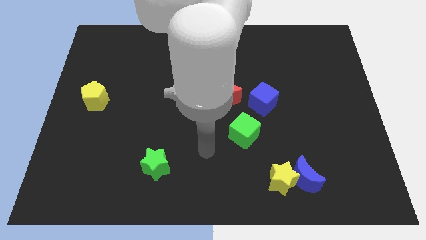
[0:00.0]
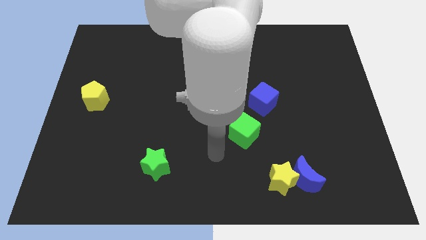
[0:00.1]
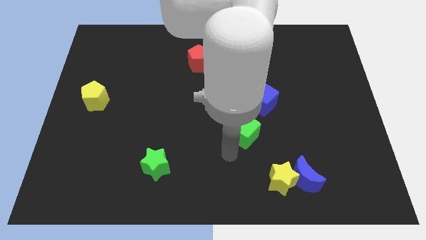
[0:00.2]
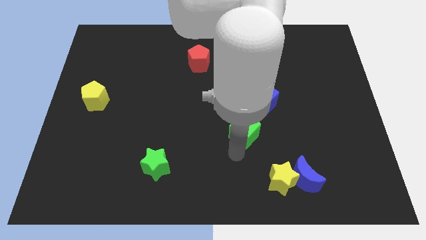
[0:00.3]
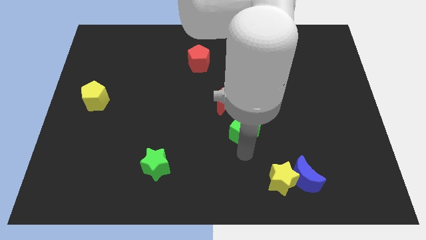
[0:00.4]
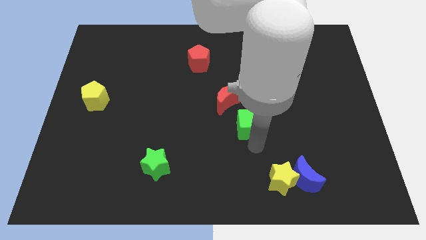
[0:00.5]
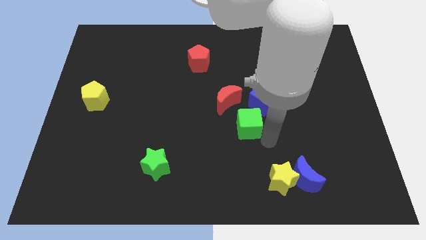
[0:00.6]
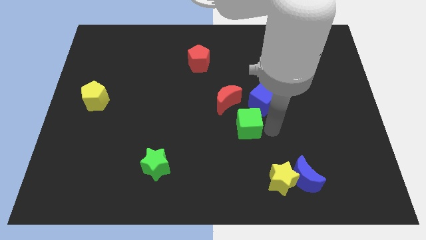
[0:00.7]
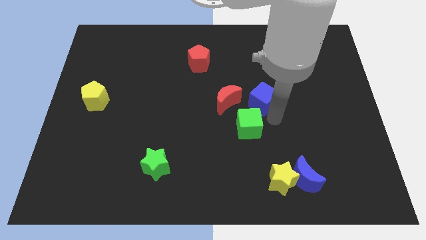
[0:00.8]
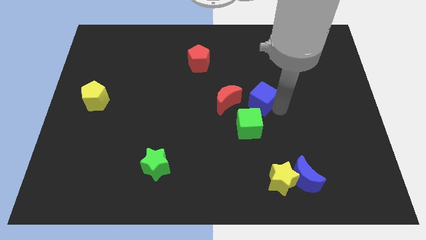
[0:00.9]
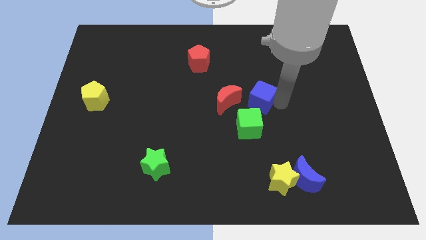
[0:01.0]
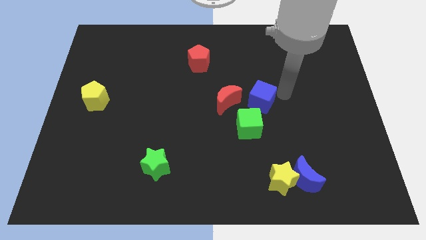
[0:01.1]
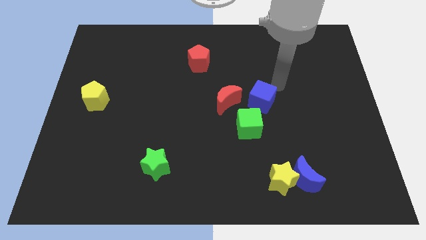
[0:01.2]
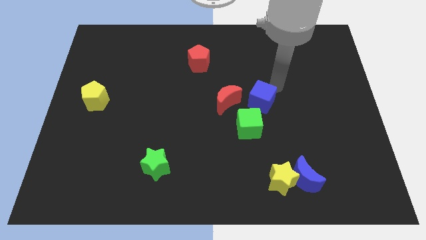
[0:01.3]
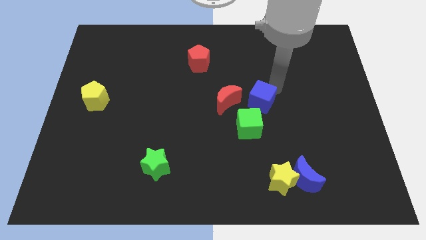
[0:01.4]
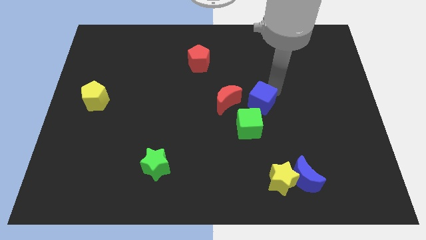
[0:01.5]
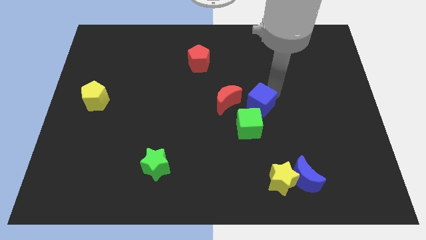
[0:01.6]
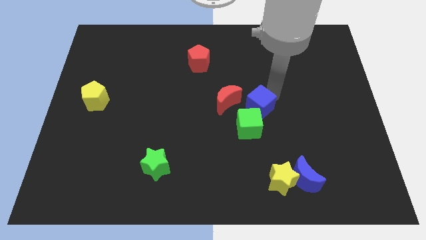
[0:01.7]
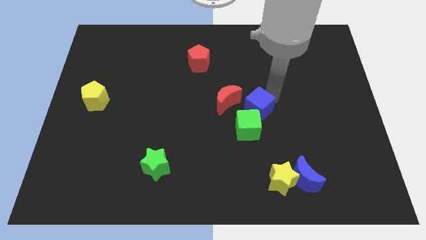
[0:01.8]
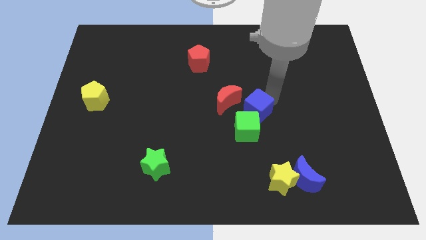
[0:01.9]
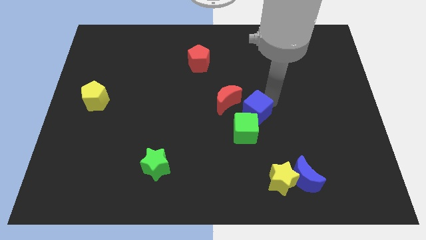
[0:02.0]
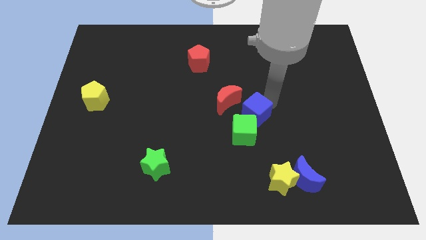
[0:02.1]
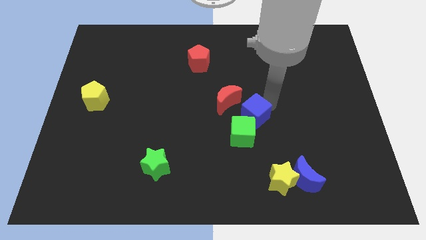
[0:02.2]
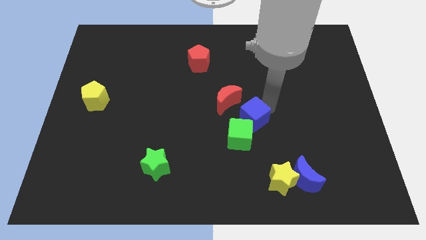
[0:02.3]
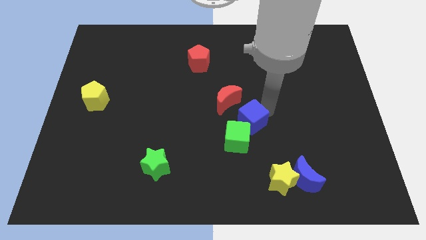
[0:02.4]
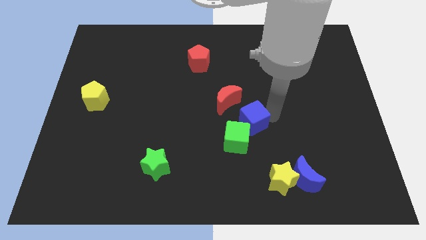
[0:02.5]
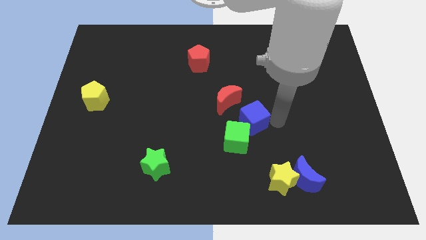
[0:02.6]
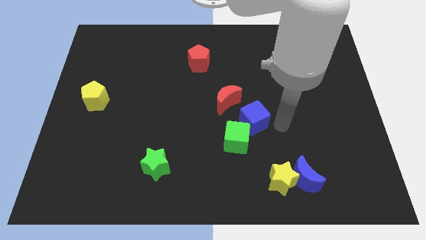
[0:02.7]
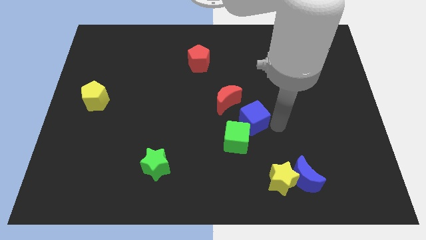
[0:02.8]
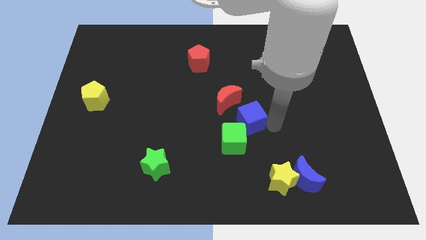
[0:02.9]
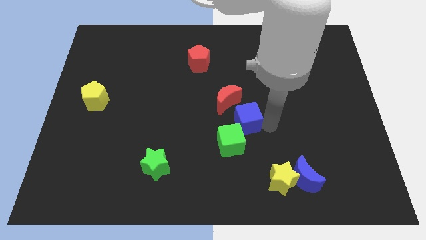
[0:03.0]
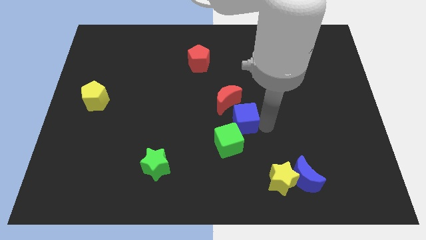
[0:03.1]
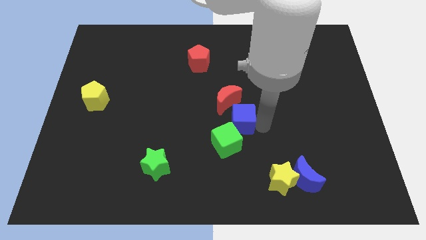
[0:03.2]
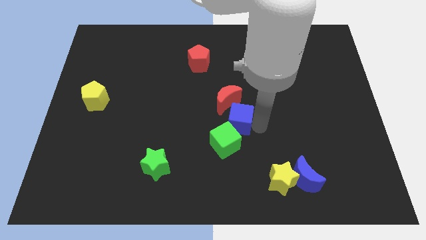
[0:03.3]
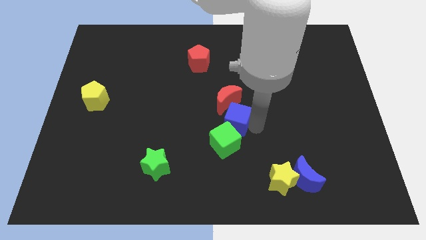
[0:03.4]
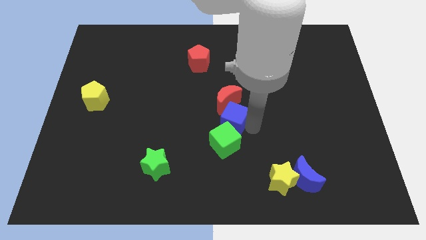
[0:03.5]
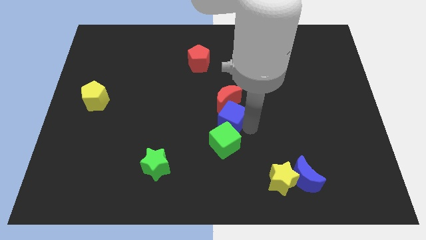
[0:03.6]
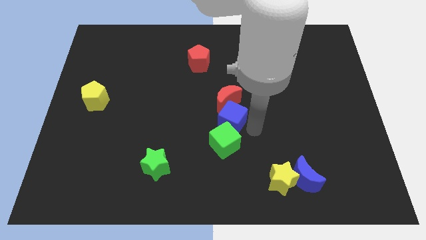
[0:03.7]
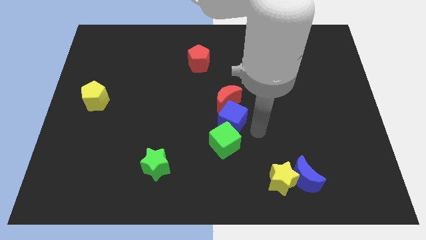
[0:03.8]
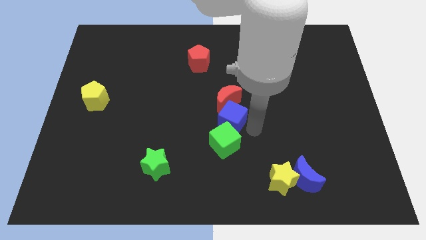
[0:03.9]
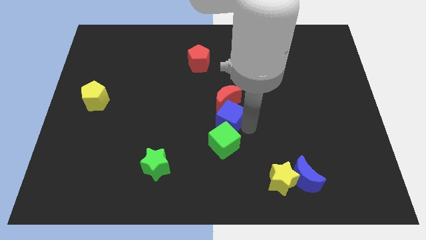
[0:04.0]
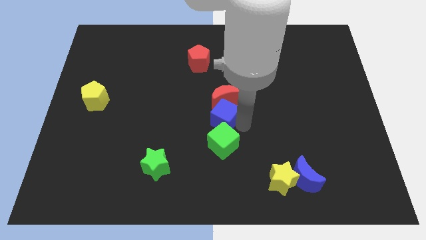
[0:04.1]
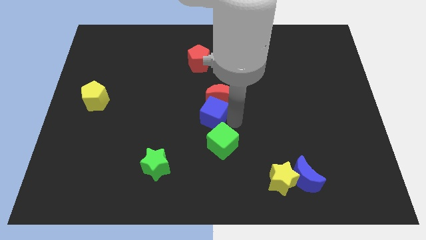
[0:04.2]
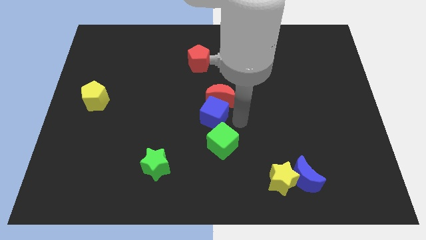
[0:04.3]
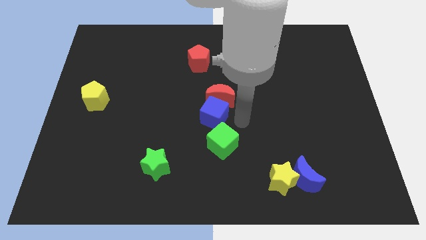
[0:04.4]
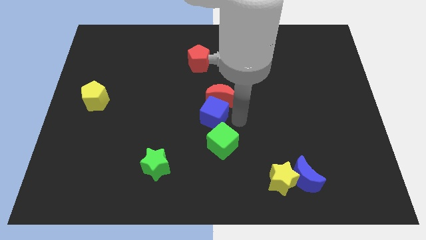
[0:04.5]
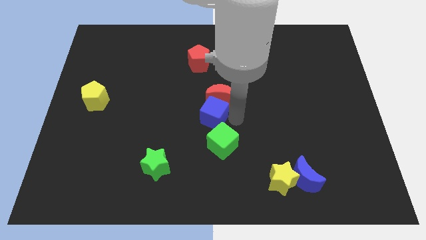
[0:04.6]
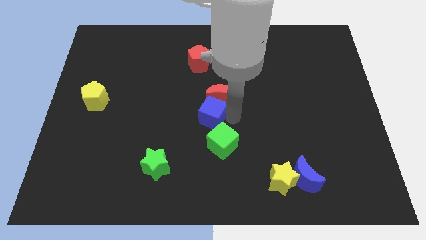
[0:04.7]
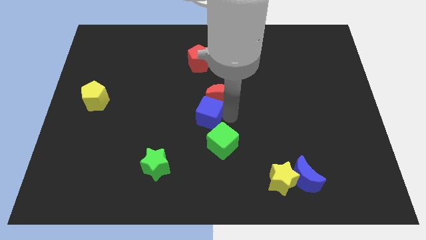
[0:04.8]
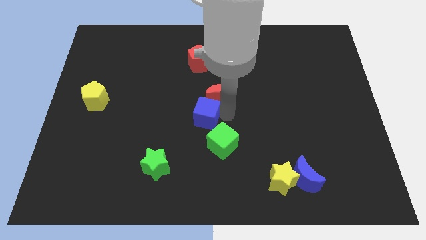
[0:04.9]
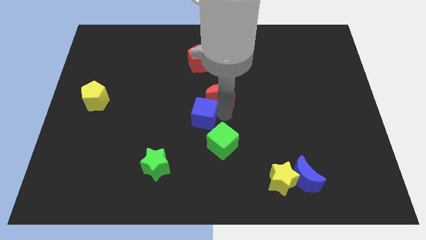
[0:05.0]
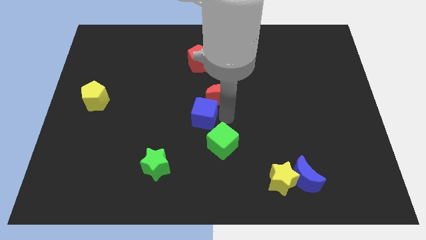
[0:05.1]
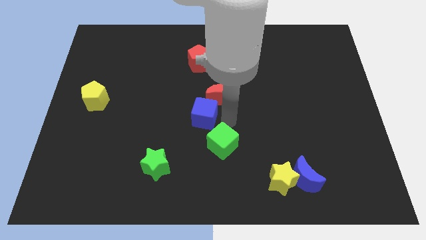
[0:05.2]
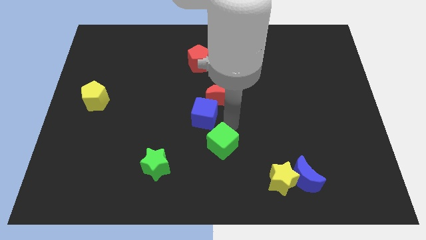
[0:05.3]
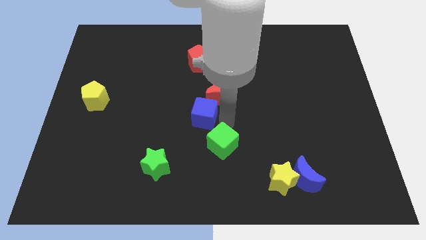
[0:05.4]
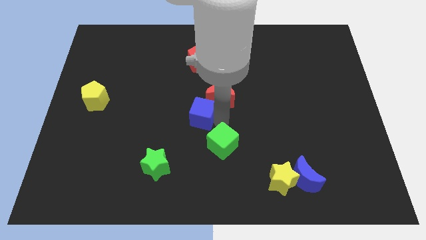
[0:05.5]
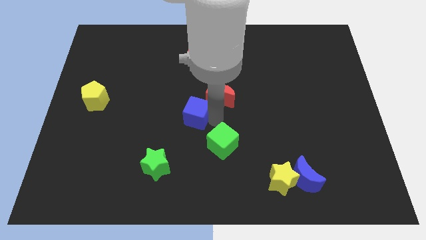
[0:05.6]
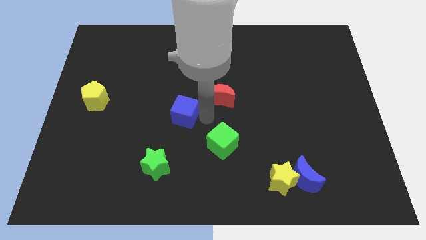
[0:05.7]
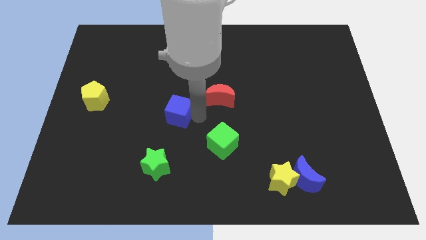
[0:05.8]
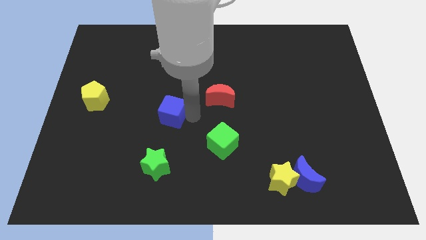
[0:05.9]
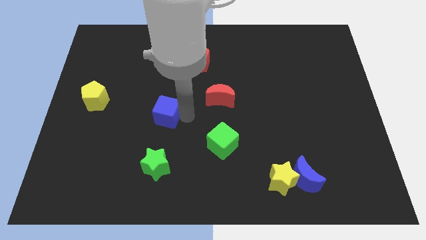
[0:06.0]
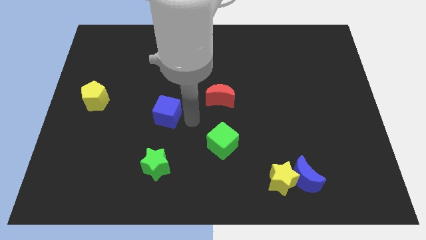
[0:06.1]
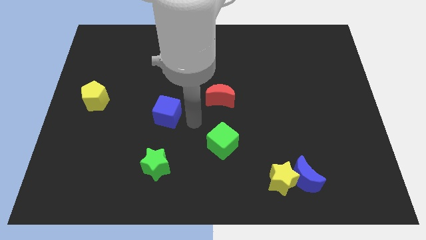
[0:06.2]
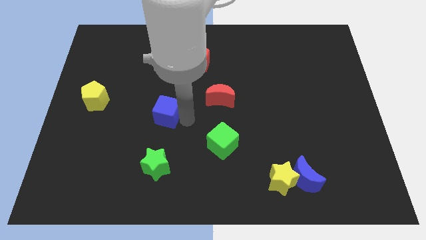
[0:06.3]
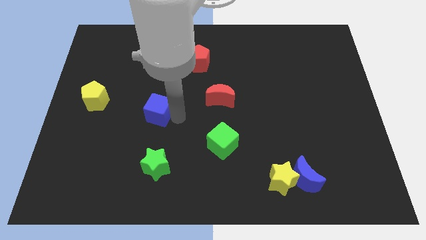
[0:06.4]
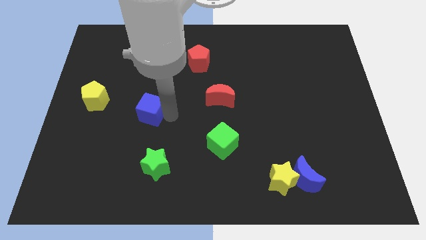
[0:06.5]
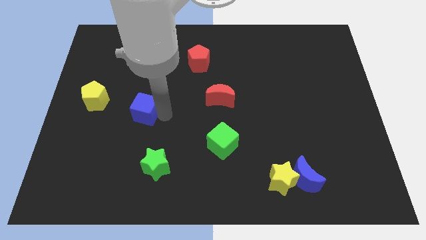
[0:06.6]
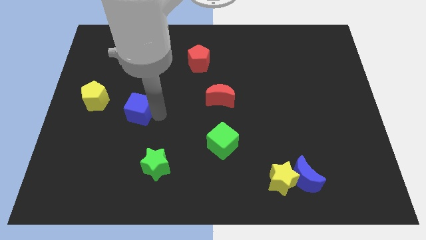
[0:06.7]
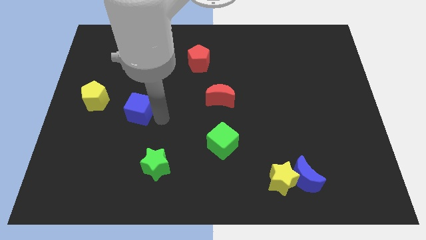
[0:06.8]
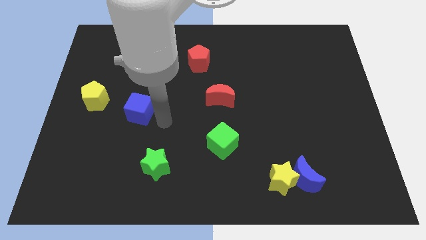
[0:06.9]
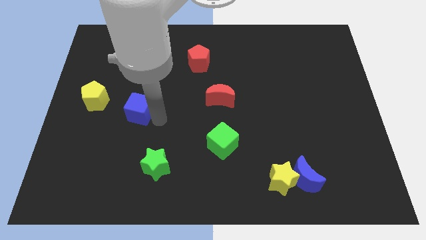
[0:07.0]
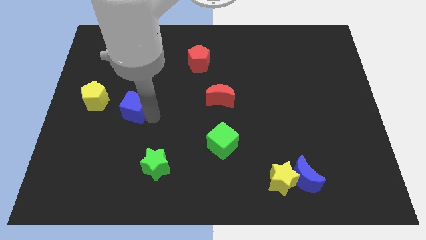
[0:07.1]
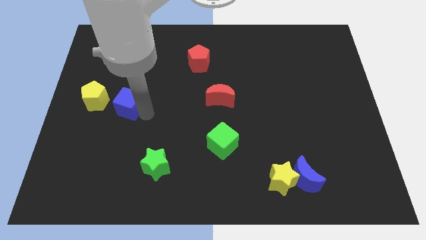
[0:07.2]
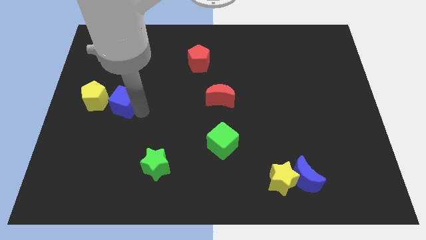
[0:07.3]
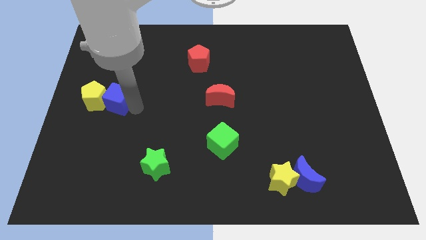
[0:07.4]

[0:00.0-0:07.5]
move the blue cube towards the yellow pentagon

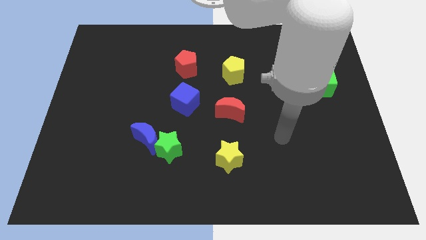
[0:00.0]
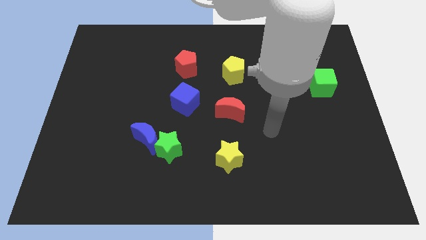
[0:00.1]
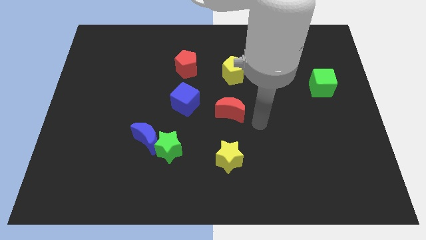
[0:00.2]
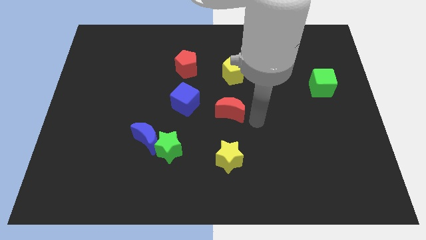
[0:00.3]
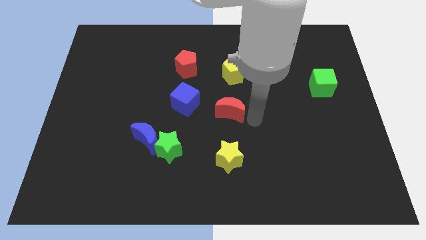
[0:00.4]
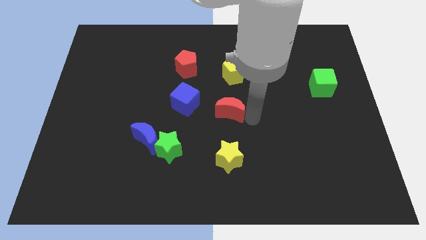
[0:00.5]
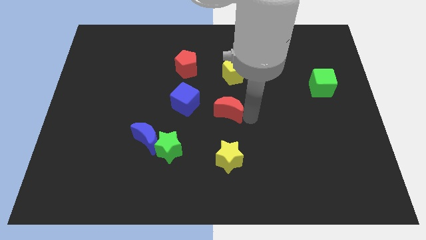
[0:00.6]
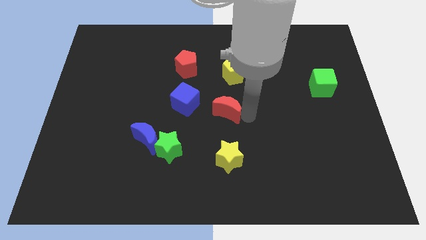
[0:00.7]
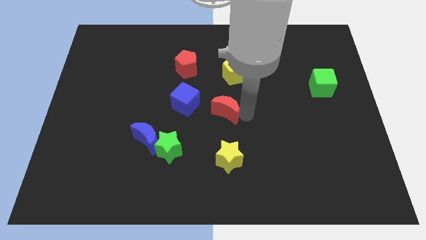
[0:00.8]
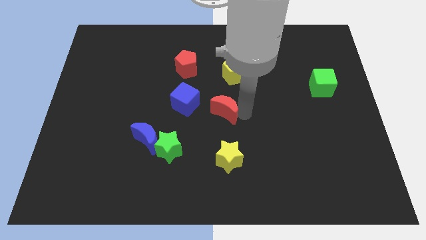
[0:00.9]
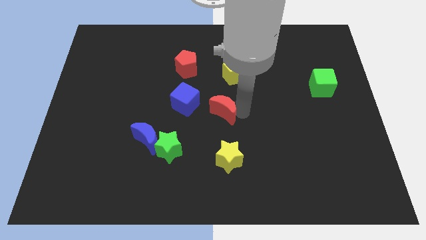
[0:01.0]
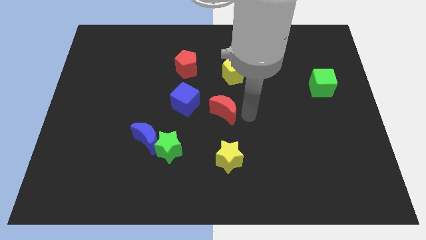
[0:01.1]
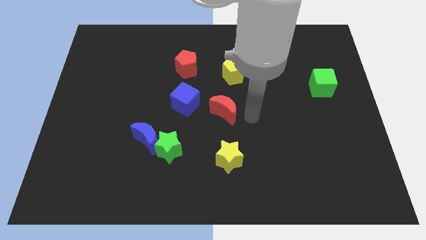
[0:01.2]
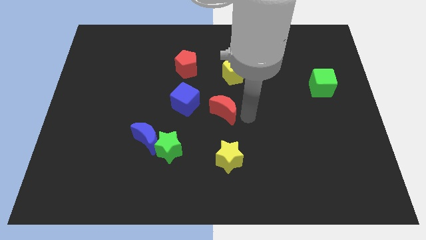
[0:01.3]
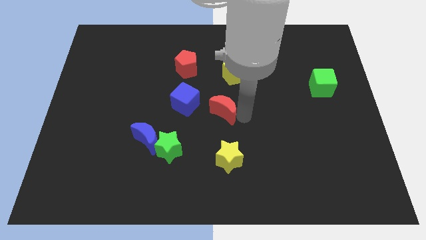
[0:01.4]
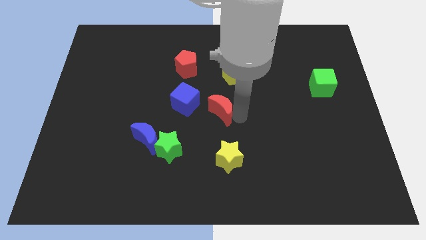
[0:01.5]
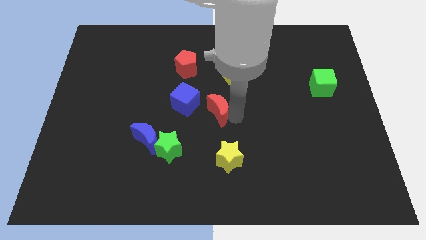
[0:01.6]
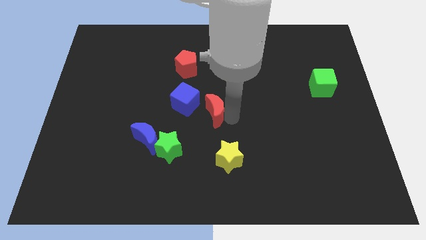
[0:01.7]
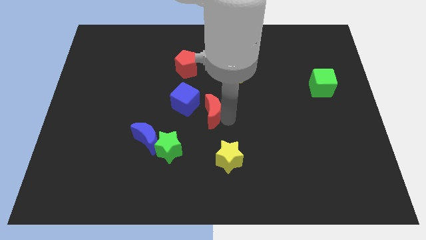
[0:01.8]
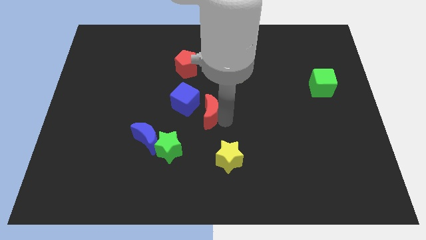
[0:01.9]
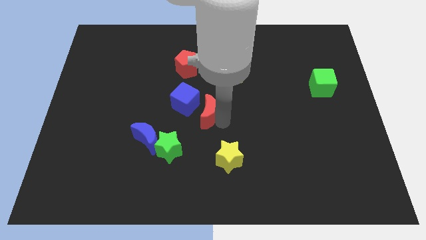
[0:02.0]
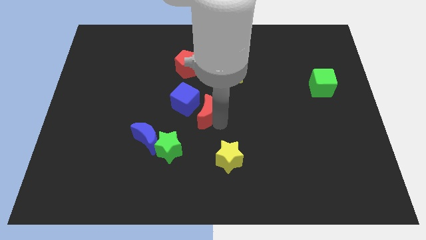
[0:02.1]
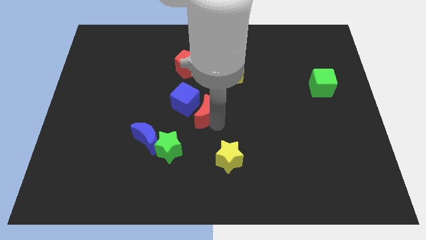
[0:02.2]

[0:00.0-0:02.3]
slide the red moon next to the blue cube
